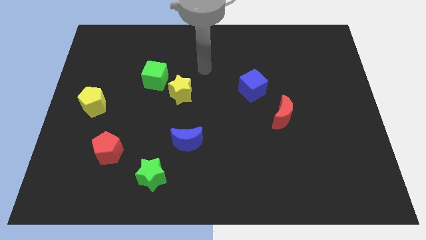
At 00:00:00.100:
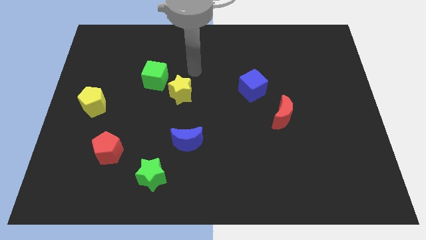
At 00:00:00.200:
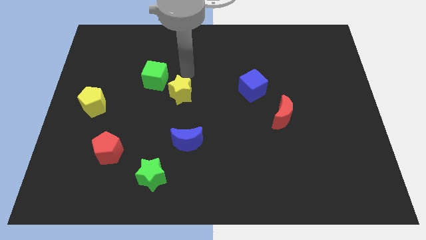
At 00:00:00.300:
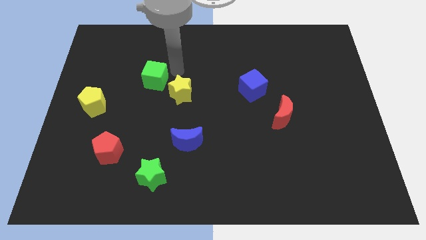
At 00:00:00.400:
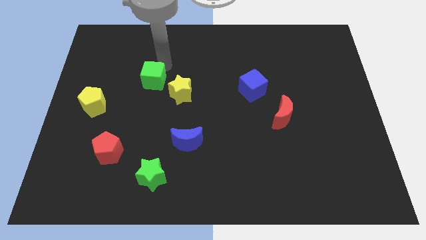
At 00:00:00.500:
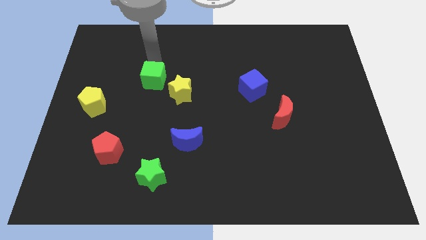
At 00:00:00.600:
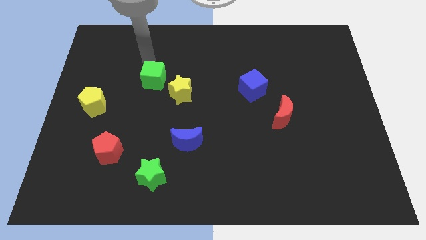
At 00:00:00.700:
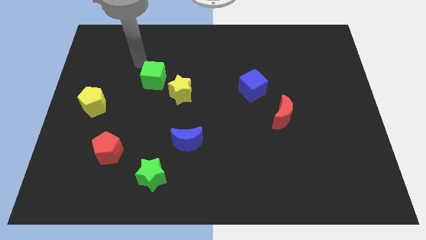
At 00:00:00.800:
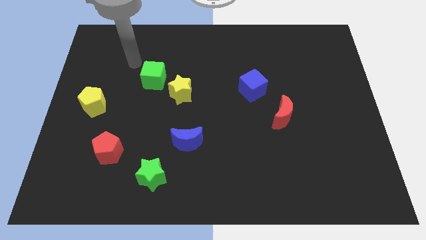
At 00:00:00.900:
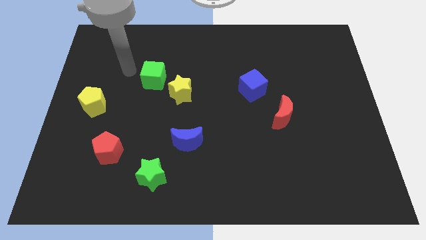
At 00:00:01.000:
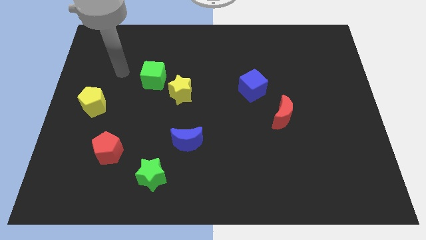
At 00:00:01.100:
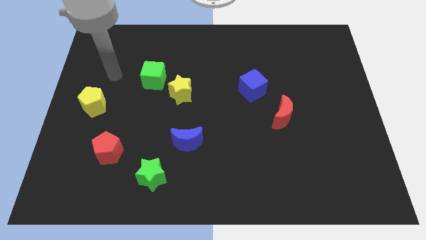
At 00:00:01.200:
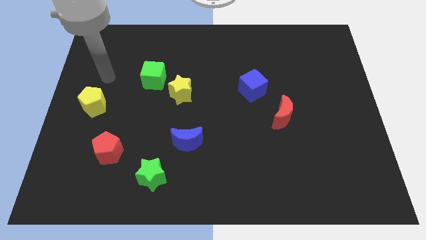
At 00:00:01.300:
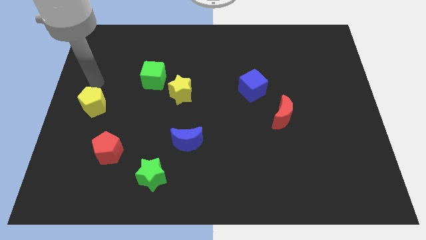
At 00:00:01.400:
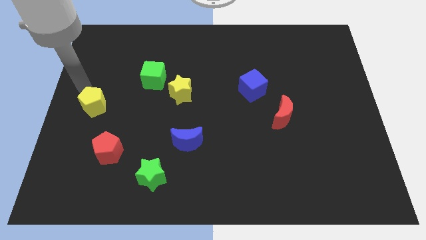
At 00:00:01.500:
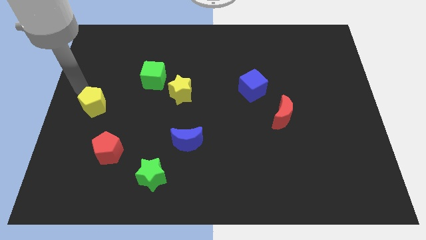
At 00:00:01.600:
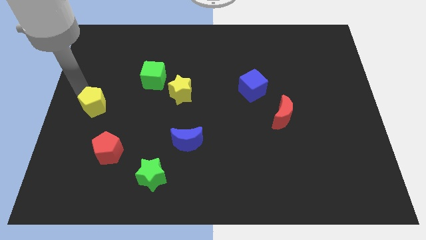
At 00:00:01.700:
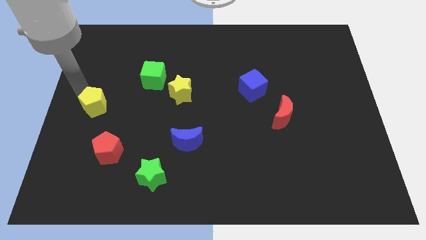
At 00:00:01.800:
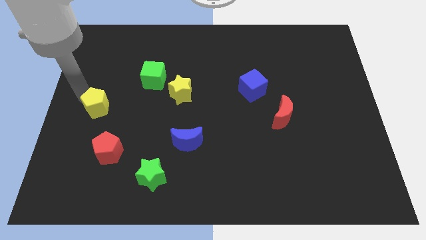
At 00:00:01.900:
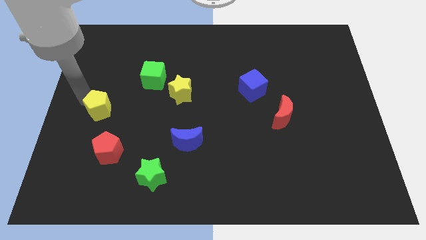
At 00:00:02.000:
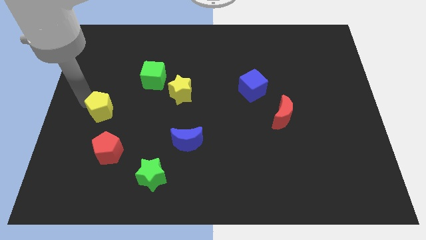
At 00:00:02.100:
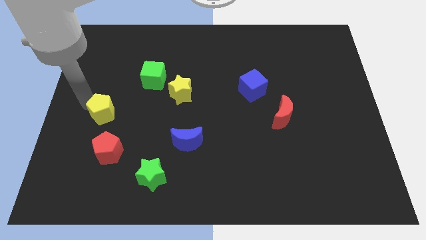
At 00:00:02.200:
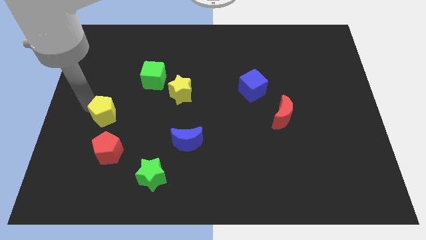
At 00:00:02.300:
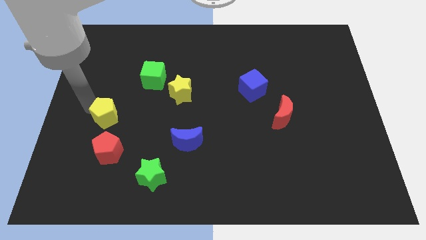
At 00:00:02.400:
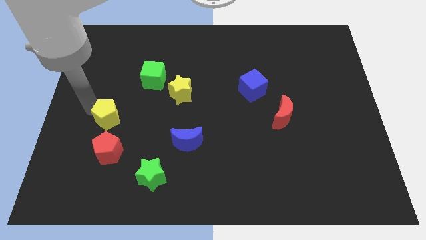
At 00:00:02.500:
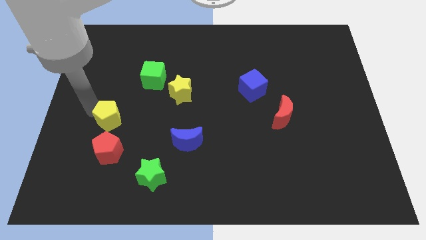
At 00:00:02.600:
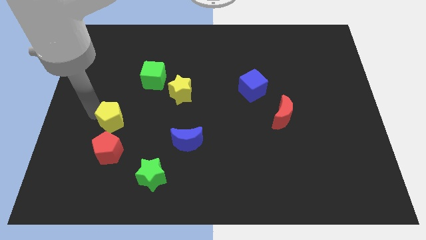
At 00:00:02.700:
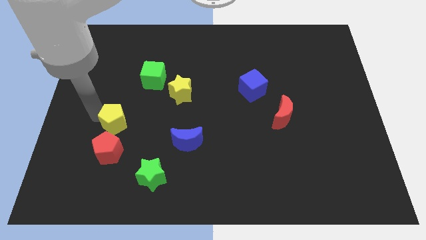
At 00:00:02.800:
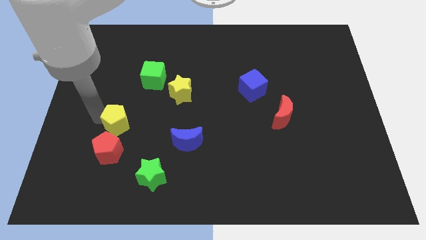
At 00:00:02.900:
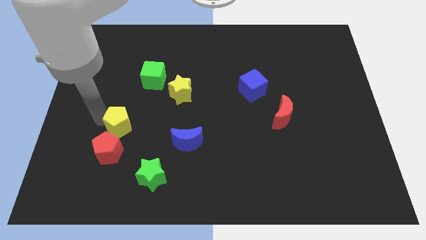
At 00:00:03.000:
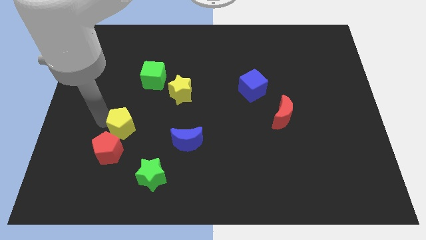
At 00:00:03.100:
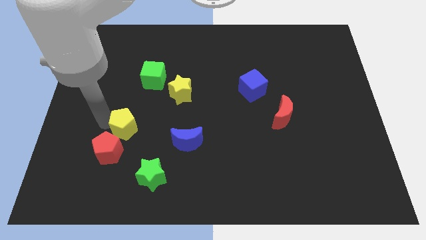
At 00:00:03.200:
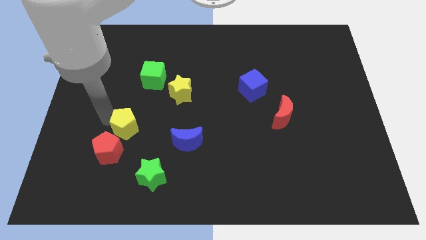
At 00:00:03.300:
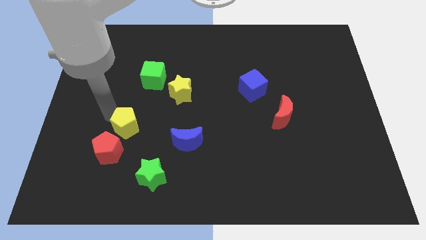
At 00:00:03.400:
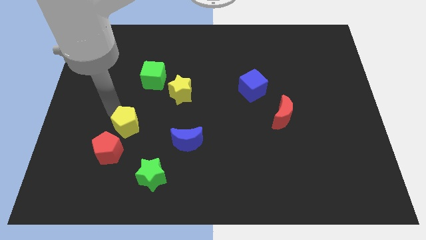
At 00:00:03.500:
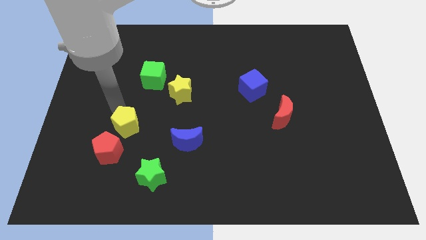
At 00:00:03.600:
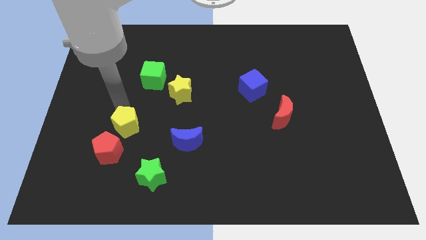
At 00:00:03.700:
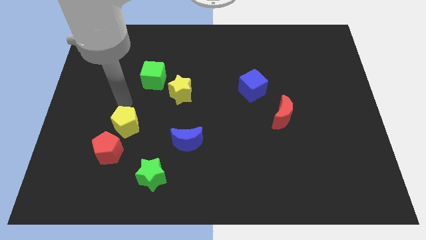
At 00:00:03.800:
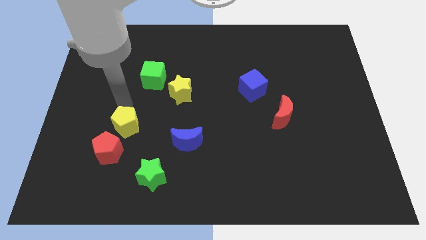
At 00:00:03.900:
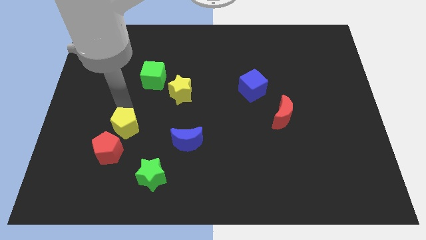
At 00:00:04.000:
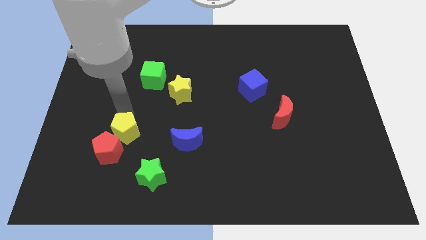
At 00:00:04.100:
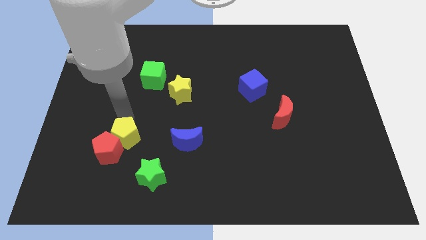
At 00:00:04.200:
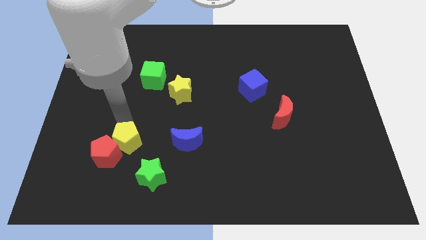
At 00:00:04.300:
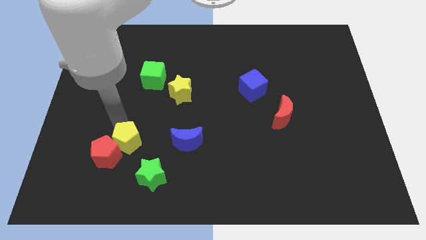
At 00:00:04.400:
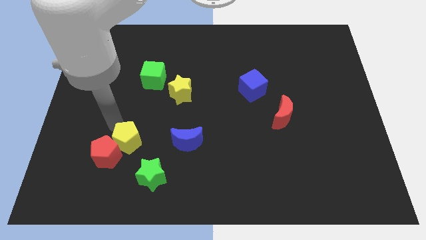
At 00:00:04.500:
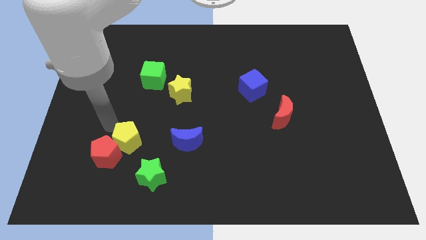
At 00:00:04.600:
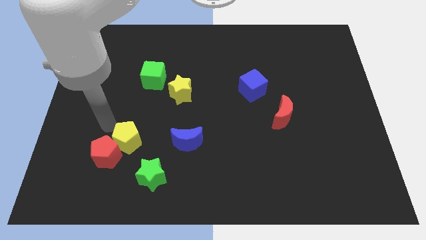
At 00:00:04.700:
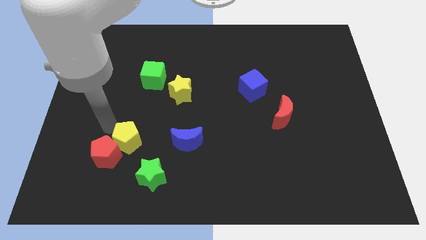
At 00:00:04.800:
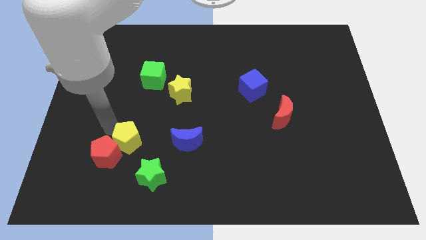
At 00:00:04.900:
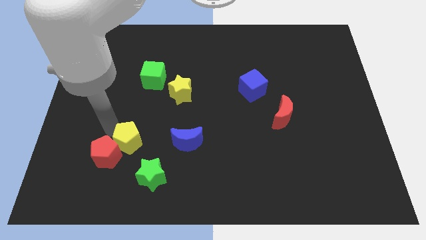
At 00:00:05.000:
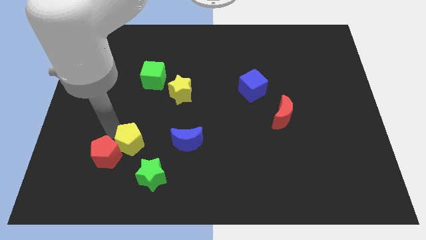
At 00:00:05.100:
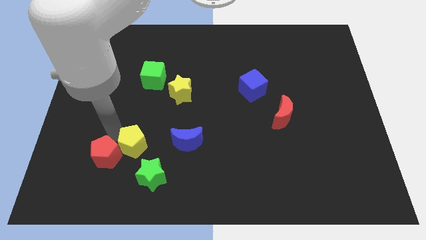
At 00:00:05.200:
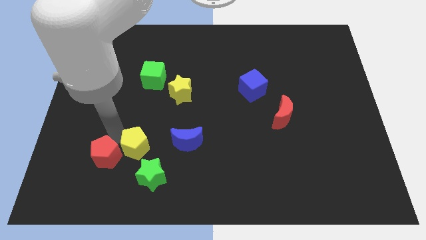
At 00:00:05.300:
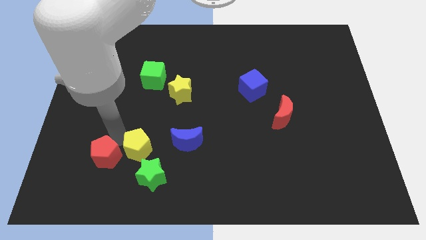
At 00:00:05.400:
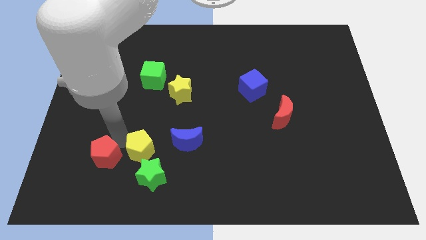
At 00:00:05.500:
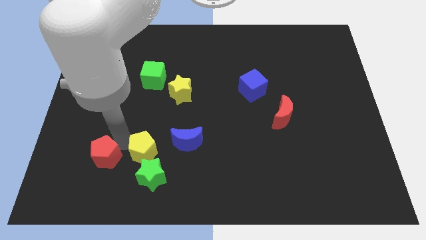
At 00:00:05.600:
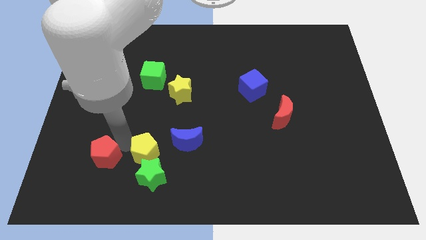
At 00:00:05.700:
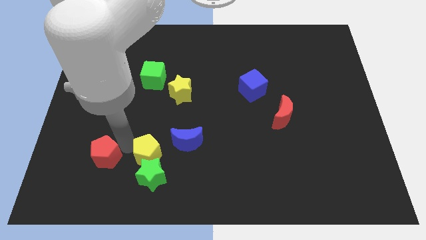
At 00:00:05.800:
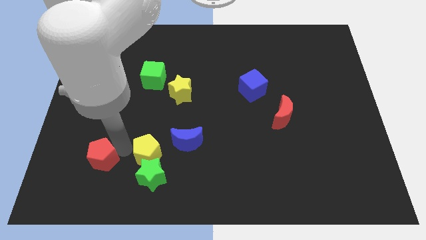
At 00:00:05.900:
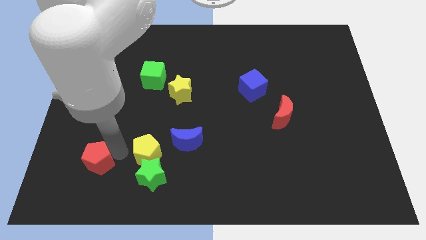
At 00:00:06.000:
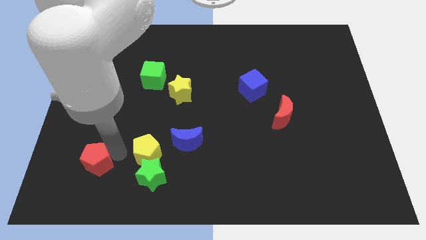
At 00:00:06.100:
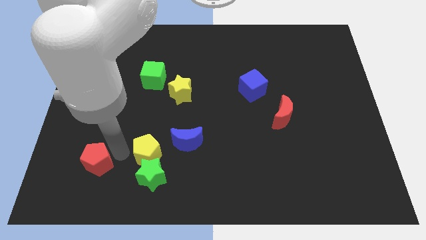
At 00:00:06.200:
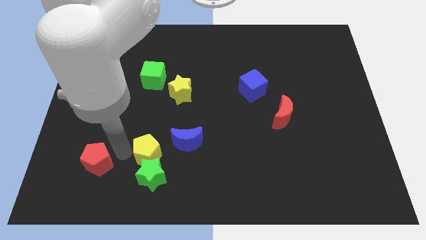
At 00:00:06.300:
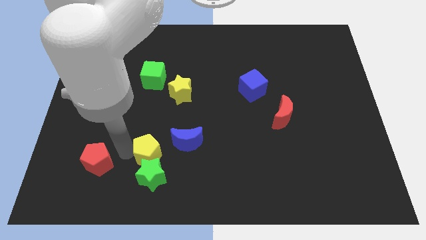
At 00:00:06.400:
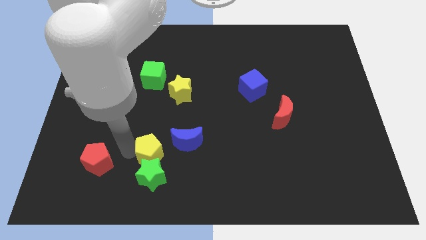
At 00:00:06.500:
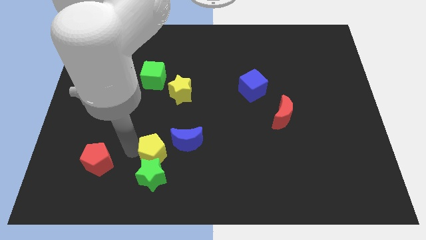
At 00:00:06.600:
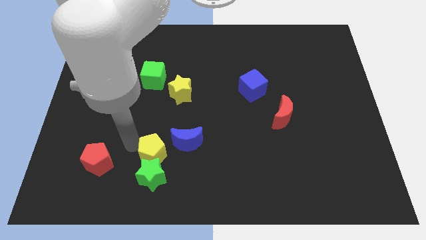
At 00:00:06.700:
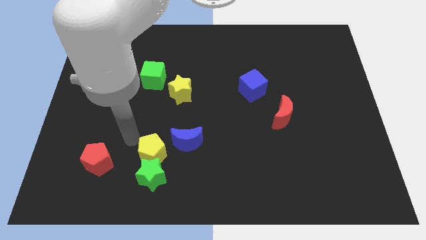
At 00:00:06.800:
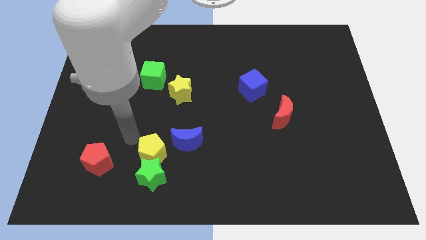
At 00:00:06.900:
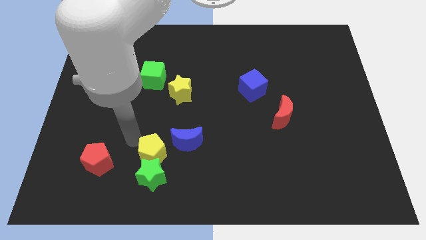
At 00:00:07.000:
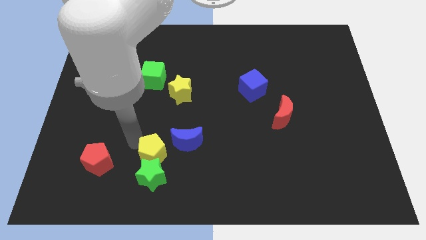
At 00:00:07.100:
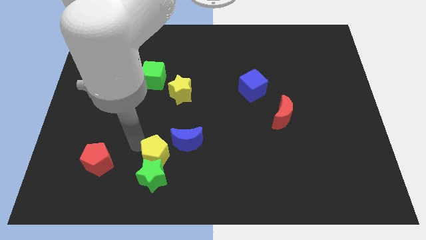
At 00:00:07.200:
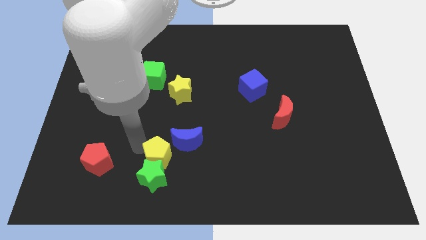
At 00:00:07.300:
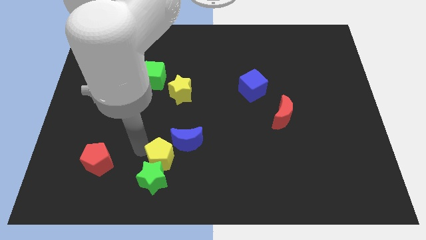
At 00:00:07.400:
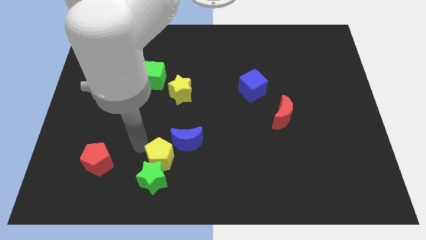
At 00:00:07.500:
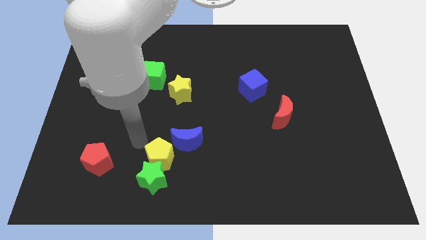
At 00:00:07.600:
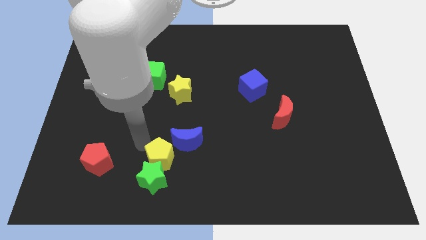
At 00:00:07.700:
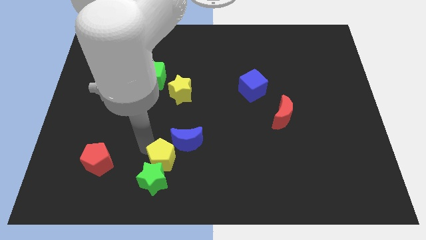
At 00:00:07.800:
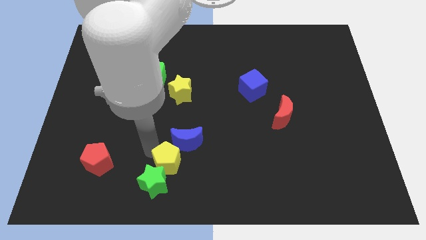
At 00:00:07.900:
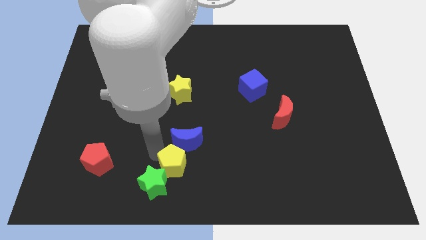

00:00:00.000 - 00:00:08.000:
push the yellow pentagon to the bottom
